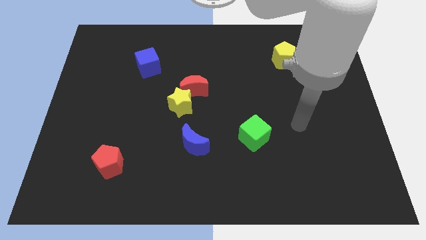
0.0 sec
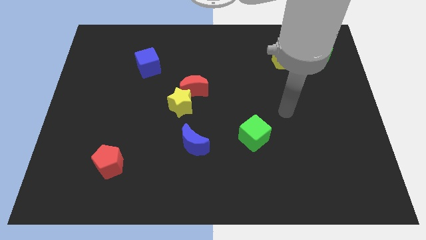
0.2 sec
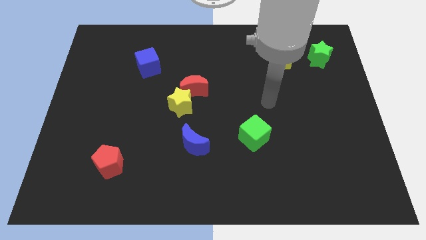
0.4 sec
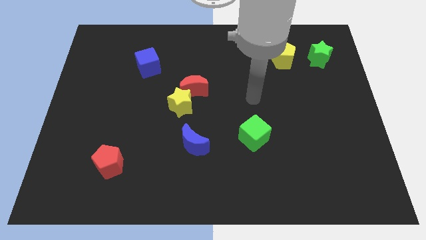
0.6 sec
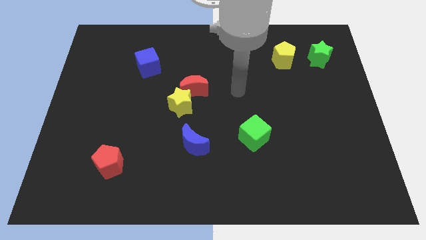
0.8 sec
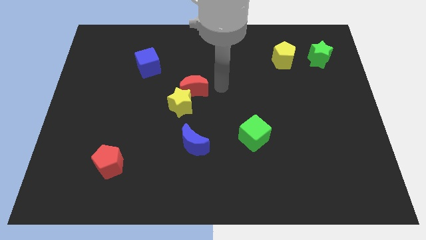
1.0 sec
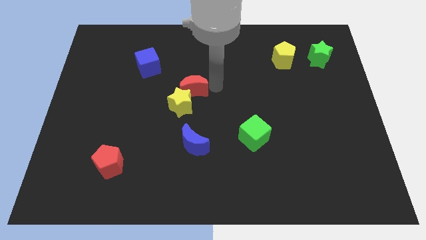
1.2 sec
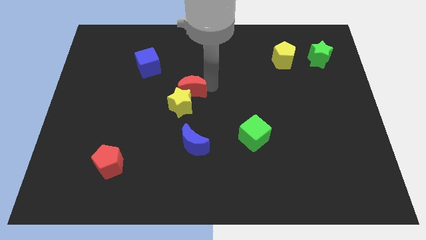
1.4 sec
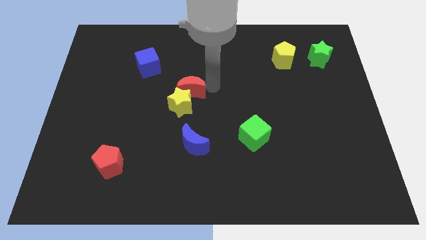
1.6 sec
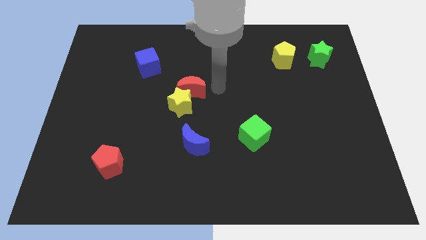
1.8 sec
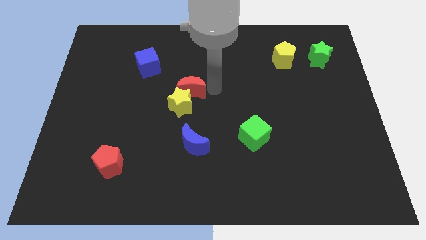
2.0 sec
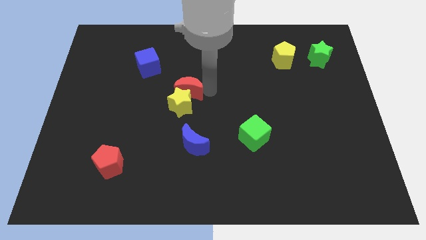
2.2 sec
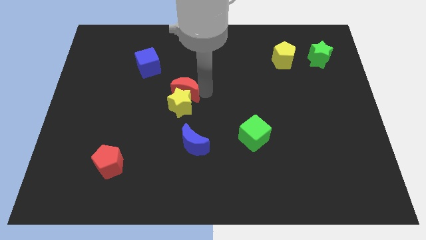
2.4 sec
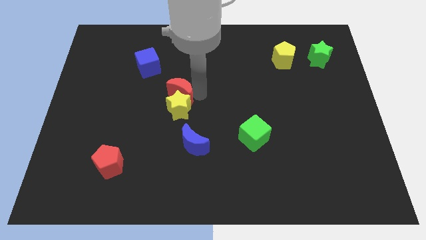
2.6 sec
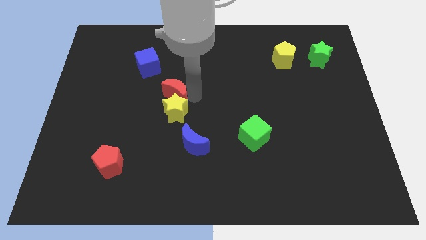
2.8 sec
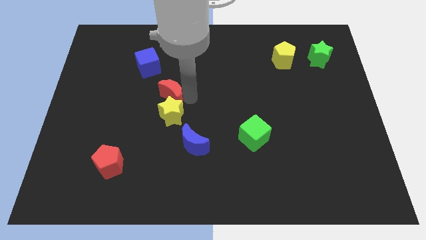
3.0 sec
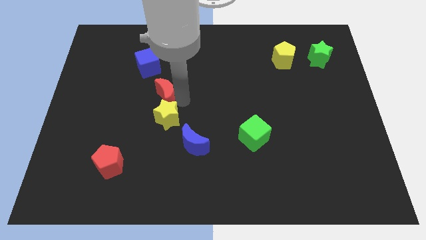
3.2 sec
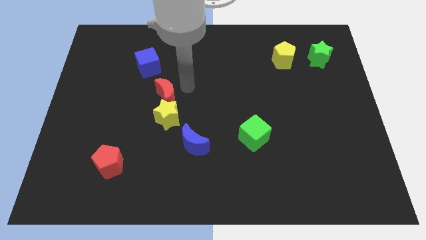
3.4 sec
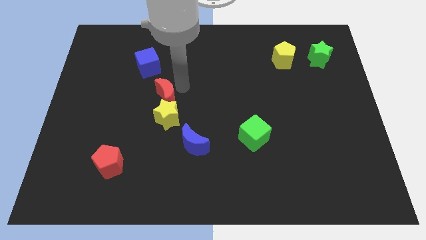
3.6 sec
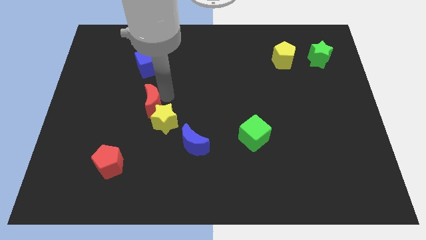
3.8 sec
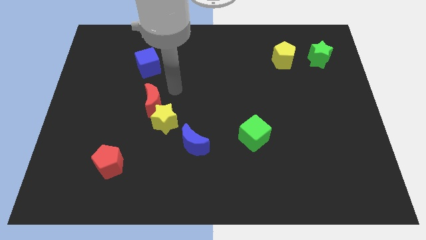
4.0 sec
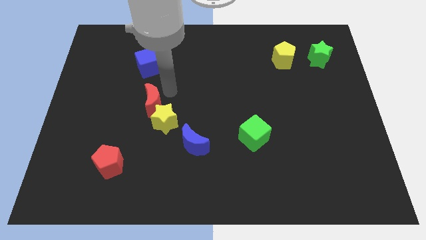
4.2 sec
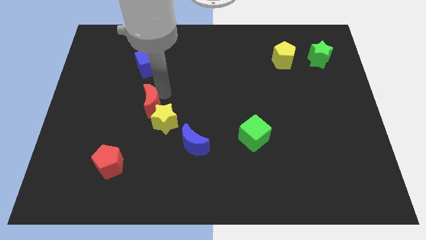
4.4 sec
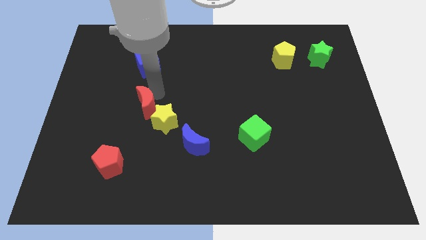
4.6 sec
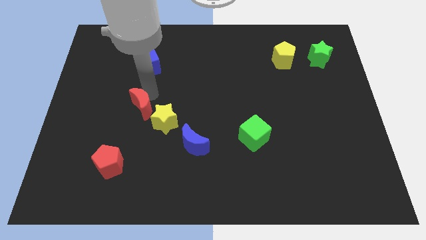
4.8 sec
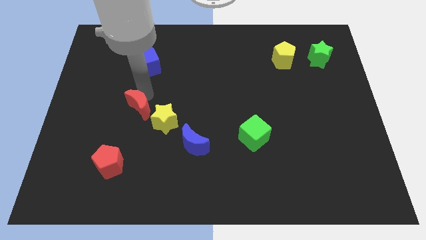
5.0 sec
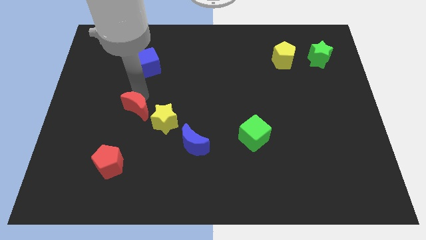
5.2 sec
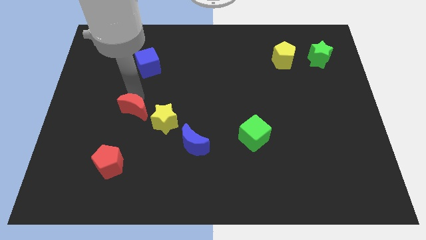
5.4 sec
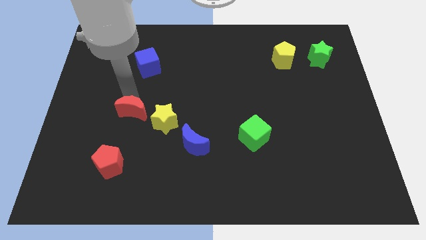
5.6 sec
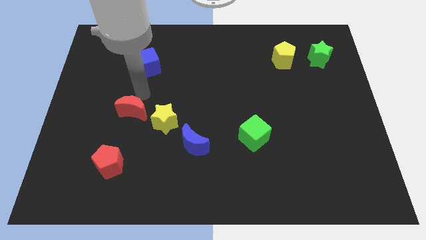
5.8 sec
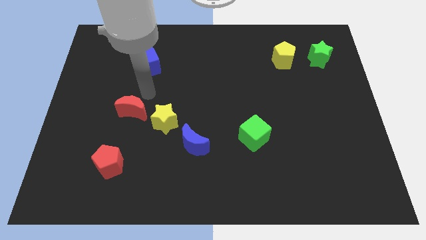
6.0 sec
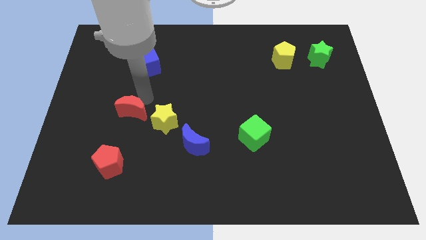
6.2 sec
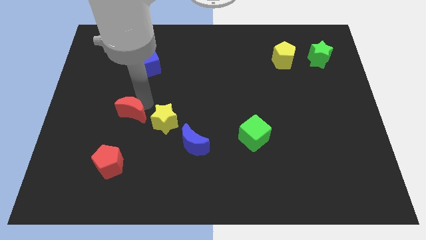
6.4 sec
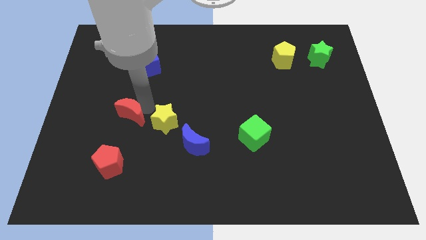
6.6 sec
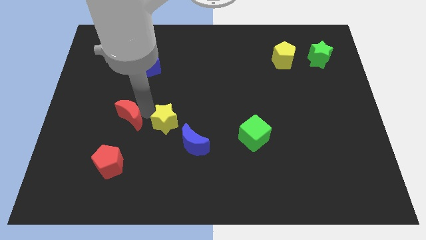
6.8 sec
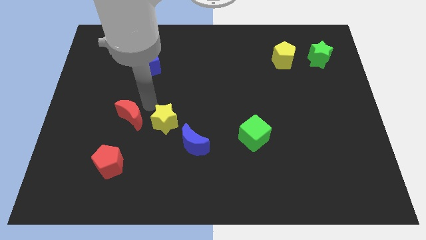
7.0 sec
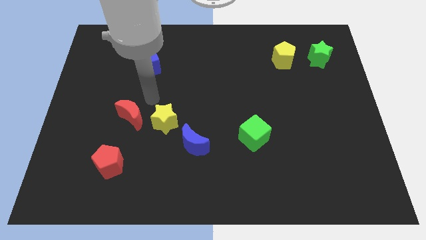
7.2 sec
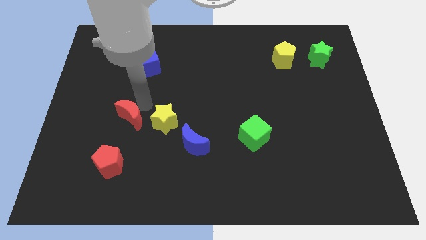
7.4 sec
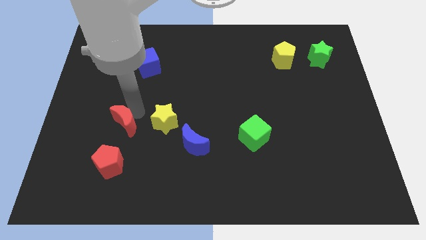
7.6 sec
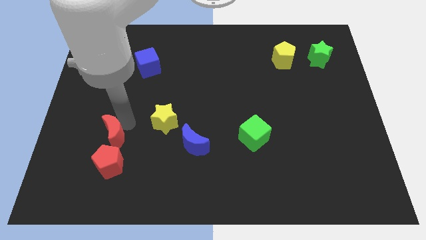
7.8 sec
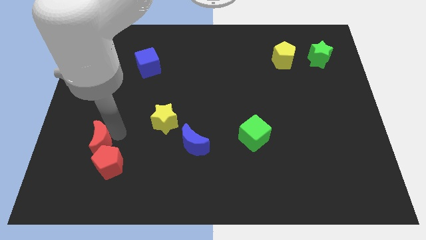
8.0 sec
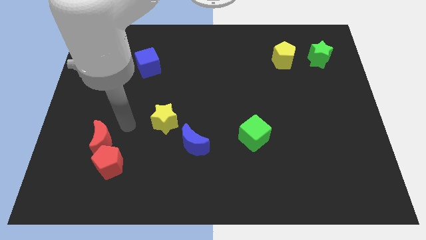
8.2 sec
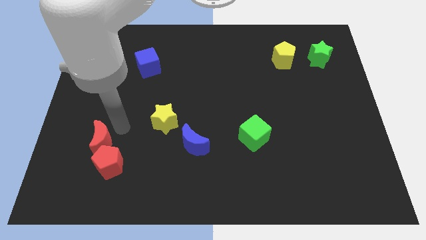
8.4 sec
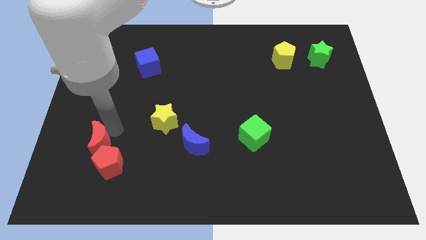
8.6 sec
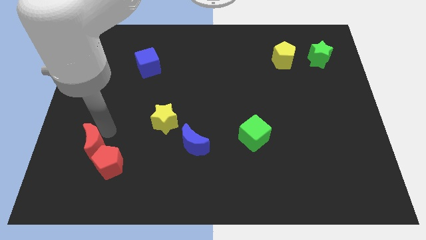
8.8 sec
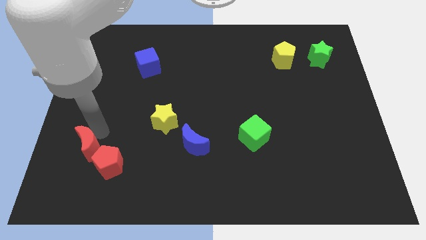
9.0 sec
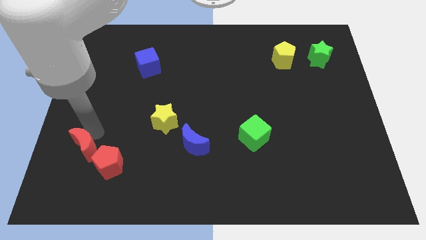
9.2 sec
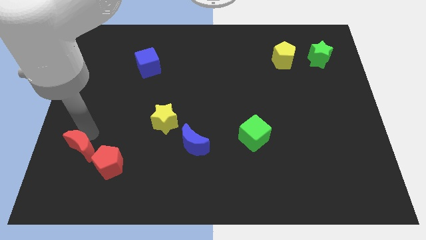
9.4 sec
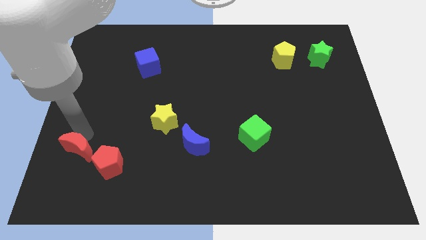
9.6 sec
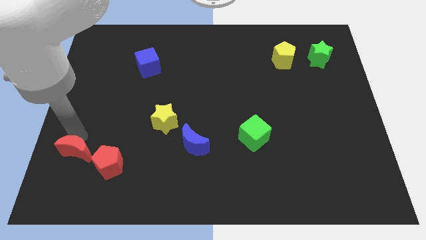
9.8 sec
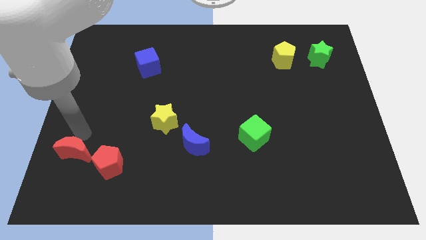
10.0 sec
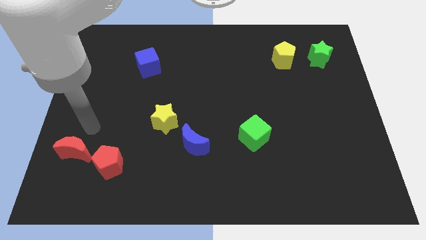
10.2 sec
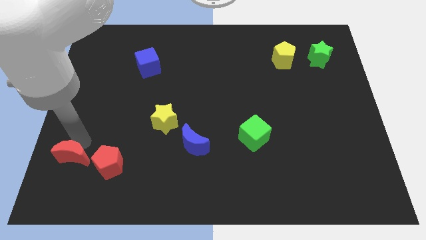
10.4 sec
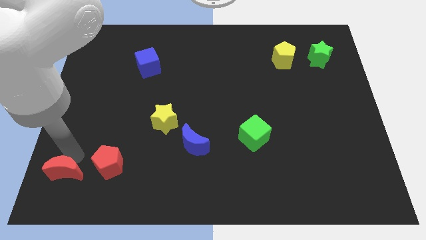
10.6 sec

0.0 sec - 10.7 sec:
put the red moon to the lower left corner

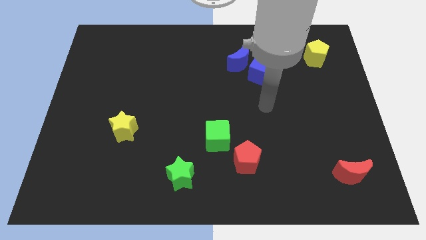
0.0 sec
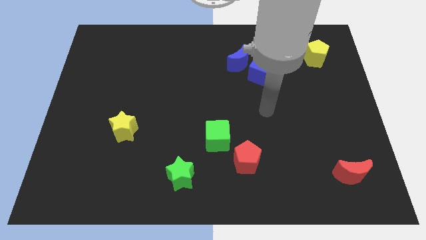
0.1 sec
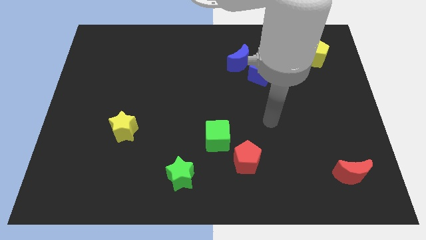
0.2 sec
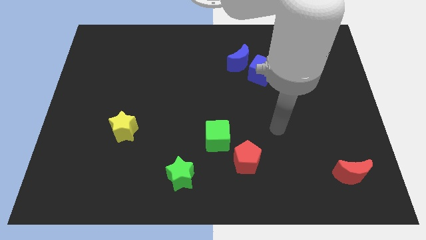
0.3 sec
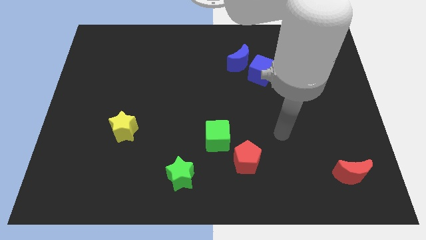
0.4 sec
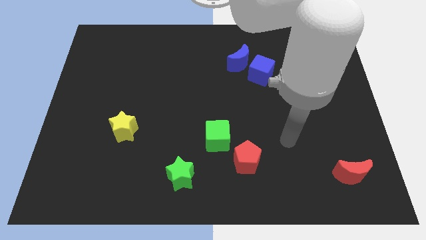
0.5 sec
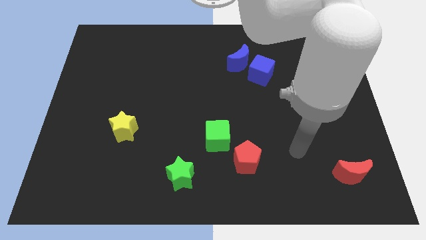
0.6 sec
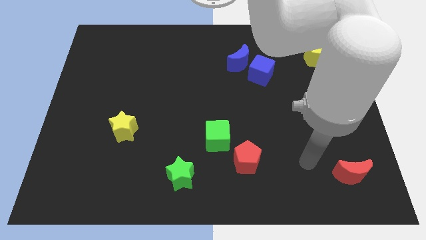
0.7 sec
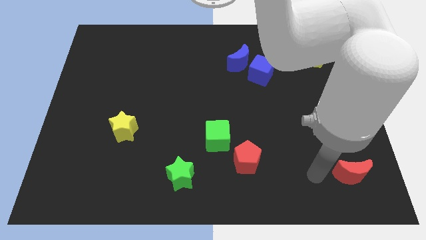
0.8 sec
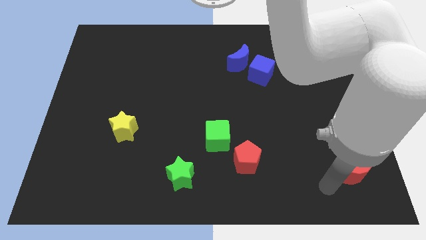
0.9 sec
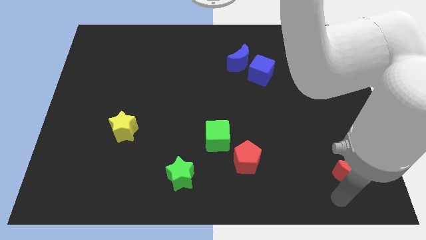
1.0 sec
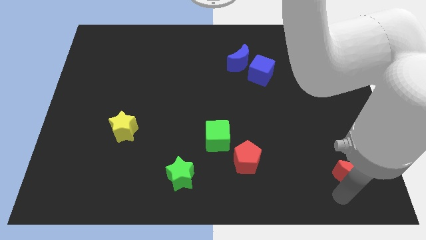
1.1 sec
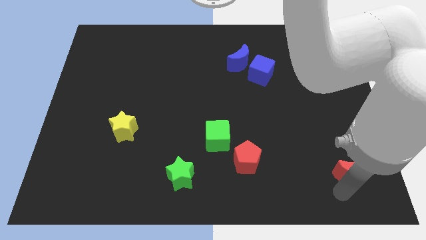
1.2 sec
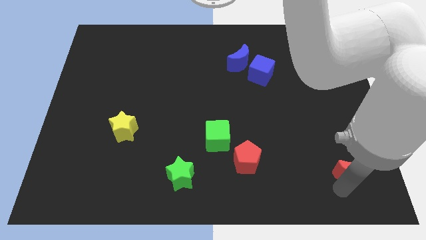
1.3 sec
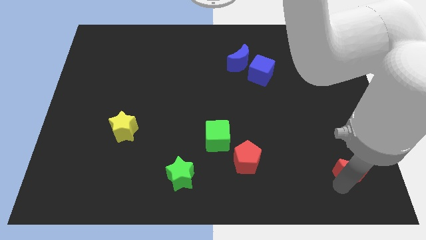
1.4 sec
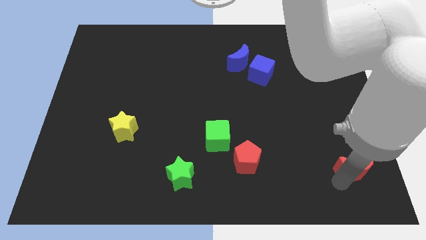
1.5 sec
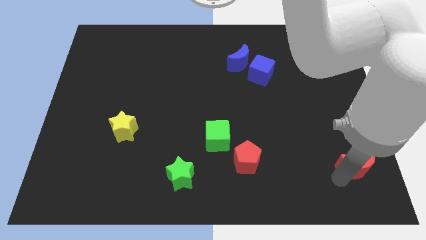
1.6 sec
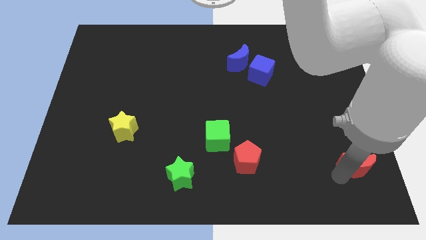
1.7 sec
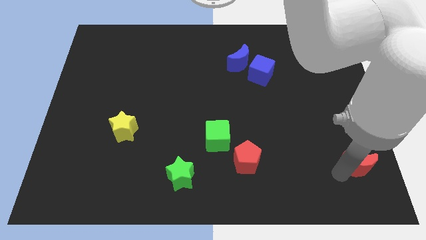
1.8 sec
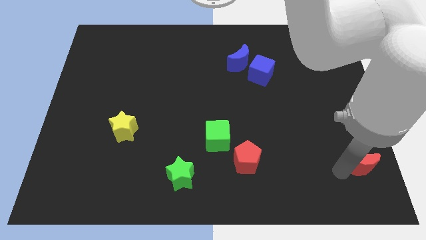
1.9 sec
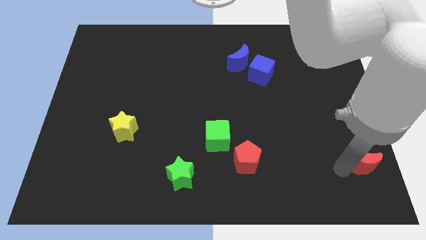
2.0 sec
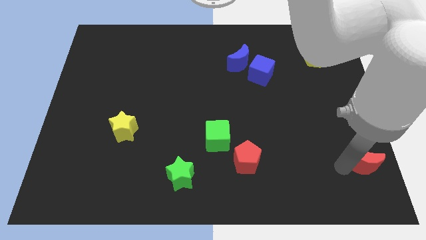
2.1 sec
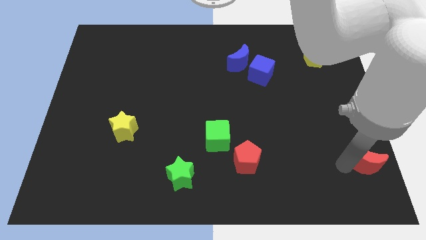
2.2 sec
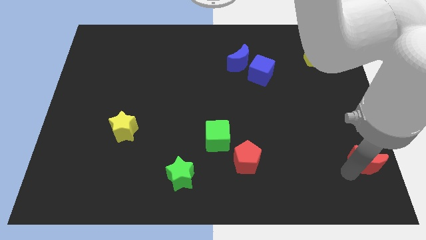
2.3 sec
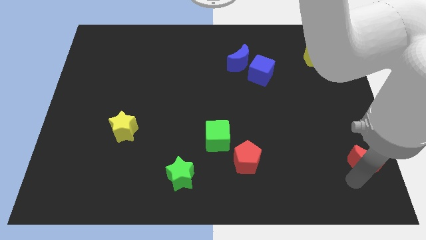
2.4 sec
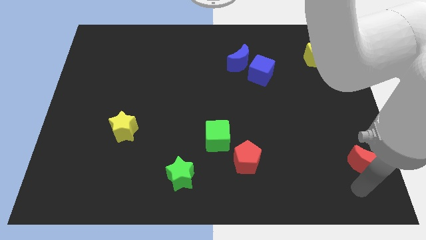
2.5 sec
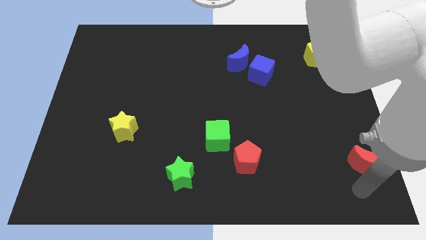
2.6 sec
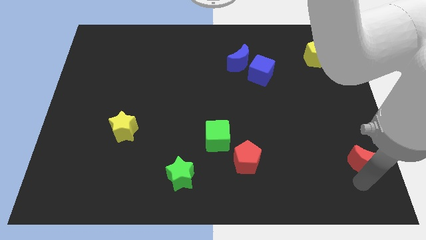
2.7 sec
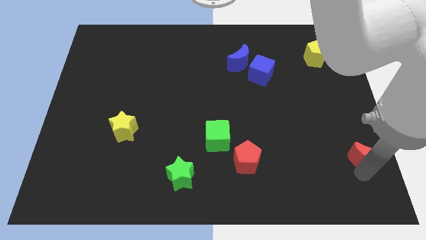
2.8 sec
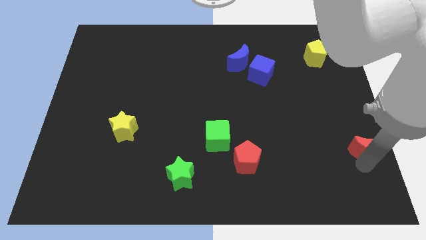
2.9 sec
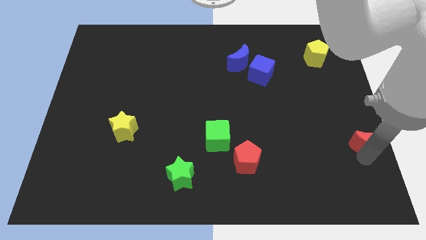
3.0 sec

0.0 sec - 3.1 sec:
move the red moon to the right side
